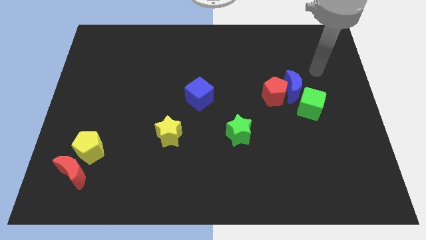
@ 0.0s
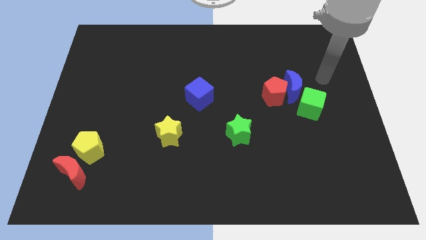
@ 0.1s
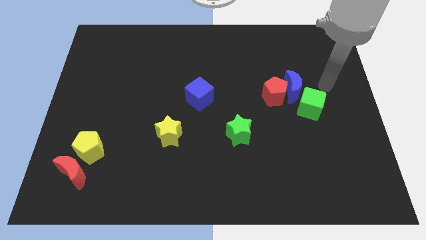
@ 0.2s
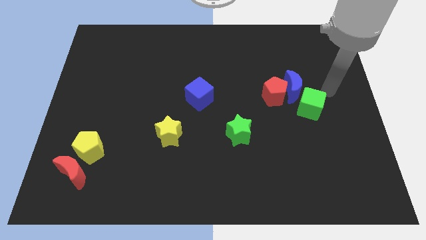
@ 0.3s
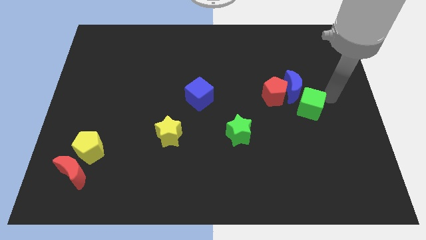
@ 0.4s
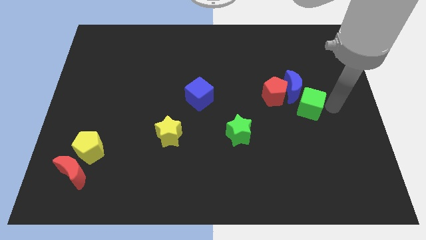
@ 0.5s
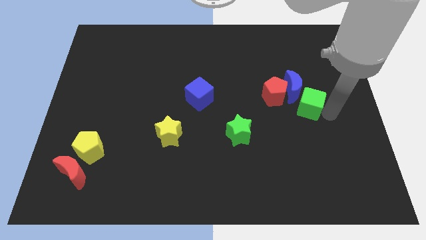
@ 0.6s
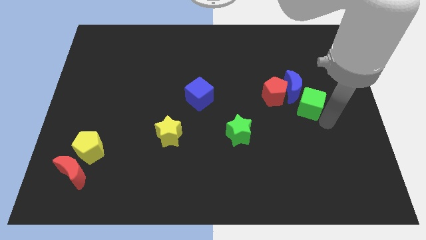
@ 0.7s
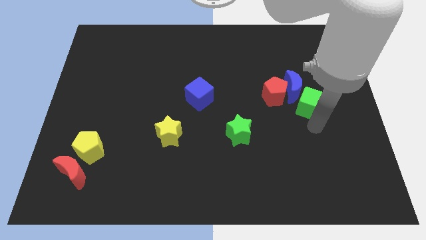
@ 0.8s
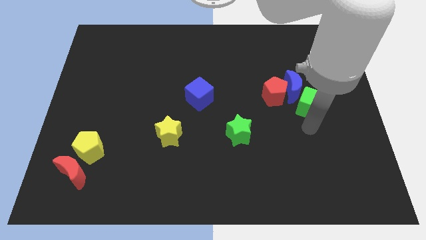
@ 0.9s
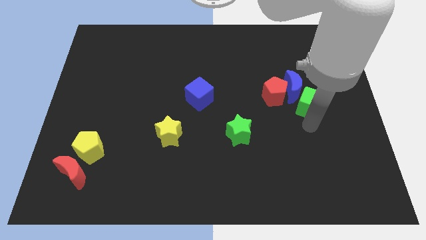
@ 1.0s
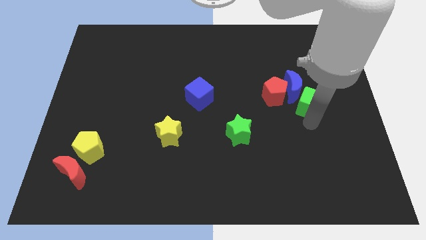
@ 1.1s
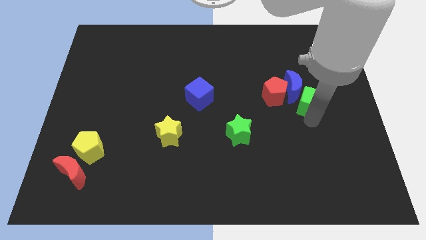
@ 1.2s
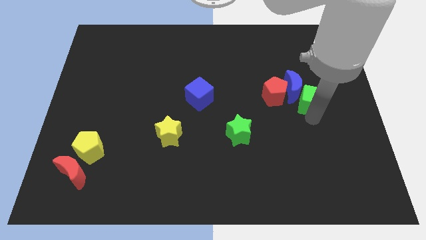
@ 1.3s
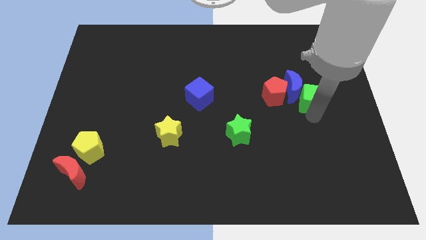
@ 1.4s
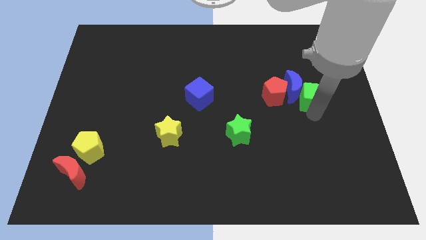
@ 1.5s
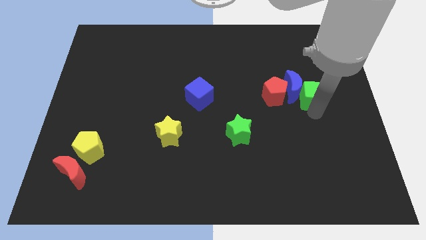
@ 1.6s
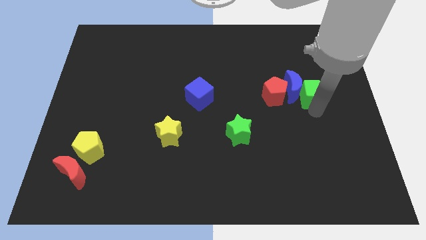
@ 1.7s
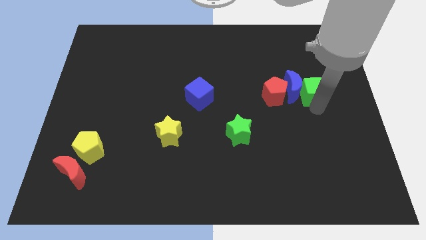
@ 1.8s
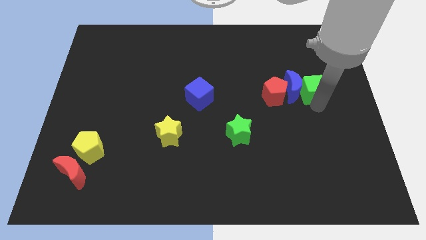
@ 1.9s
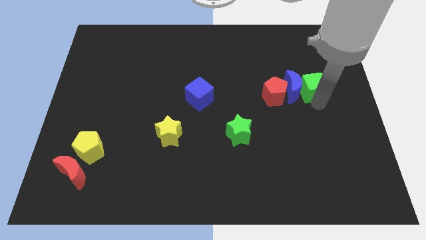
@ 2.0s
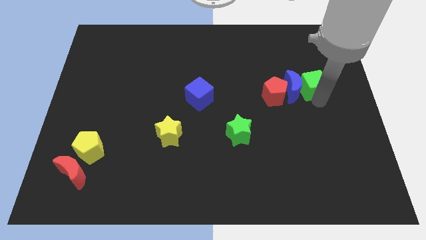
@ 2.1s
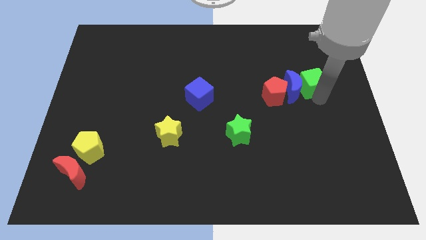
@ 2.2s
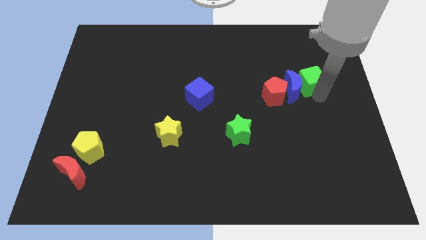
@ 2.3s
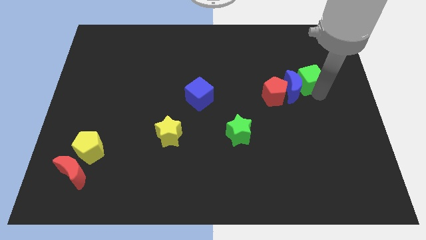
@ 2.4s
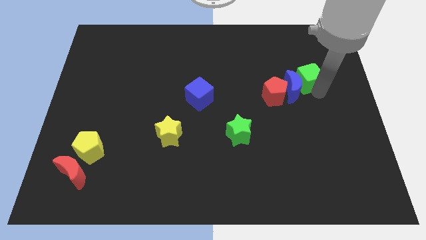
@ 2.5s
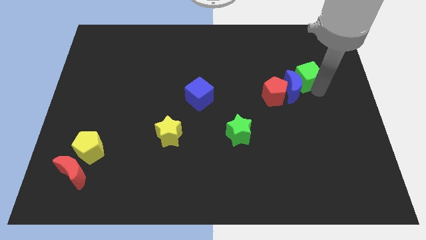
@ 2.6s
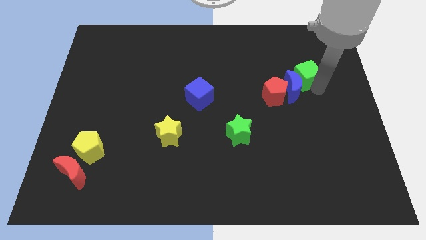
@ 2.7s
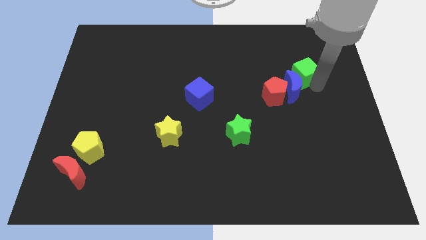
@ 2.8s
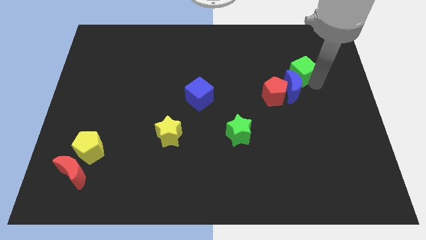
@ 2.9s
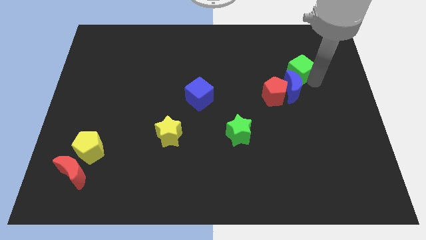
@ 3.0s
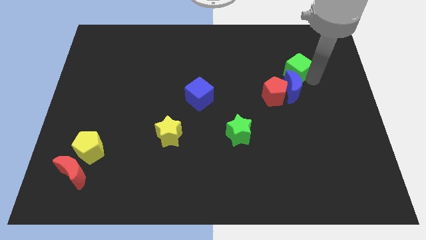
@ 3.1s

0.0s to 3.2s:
slide the green cube a bit upwards and left

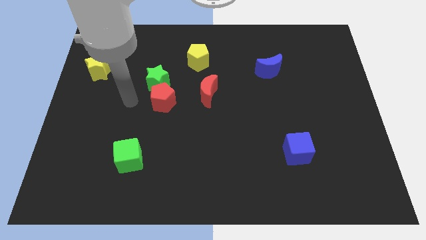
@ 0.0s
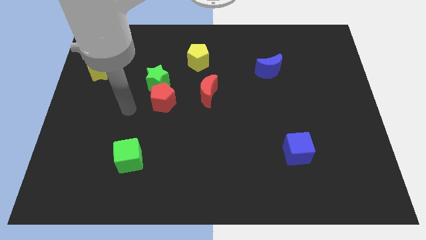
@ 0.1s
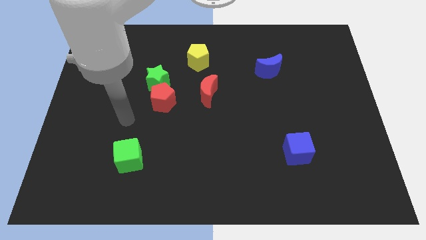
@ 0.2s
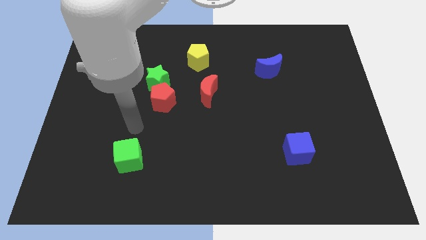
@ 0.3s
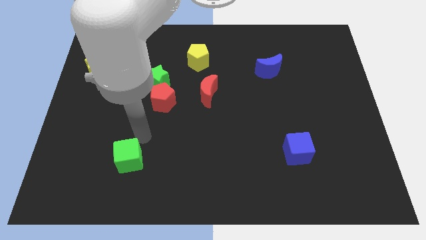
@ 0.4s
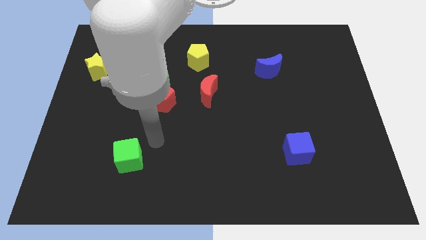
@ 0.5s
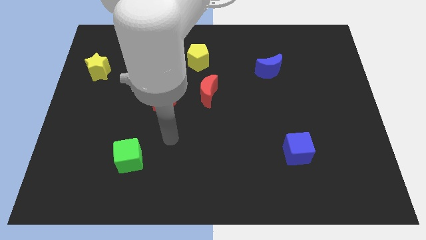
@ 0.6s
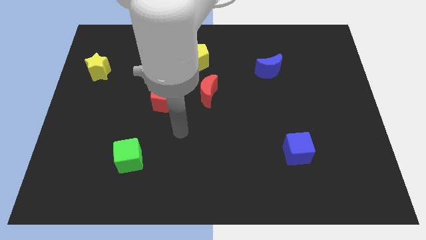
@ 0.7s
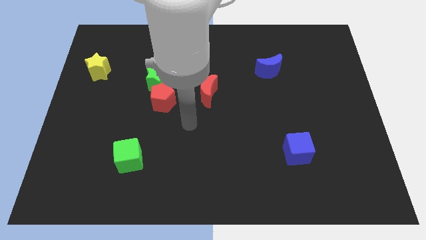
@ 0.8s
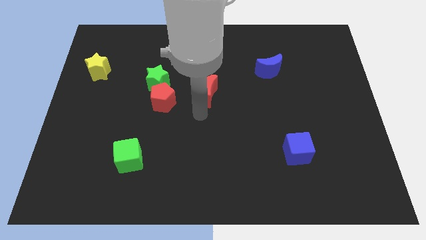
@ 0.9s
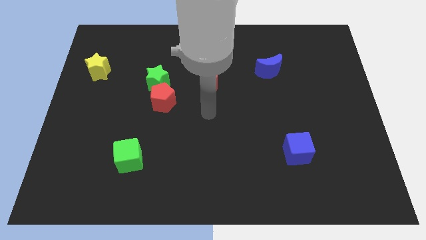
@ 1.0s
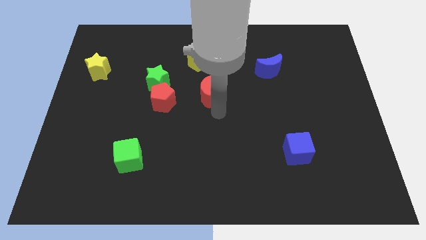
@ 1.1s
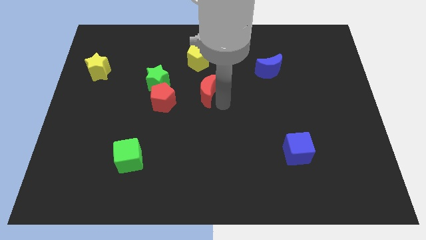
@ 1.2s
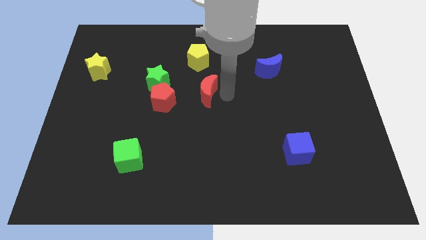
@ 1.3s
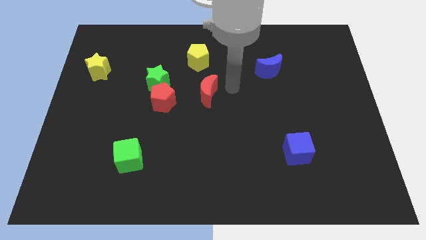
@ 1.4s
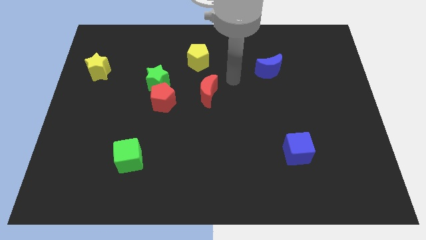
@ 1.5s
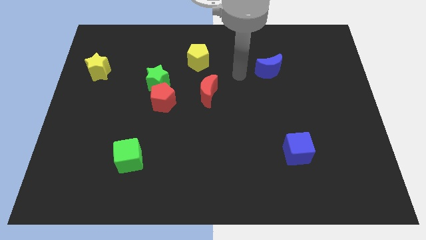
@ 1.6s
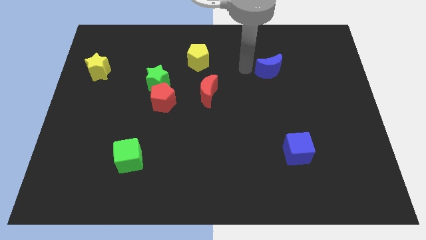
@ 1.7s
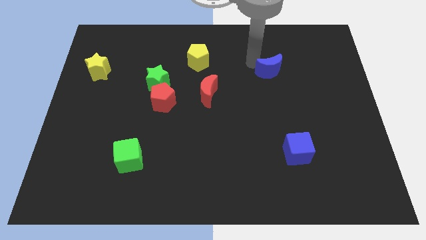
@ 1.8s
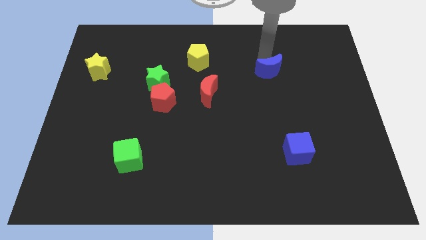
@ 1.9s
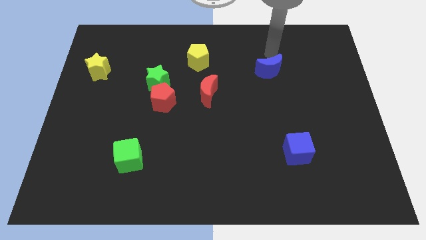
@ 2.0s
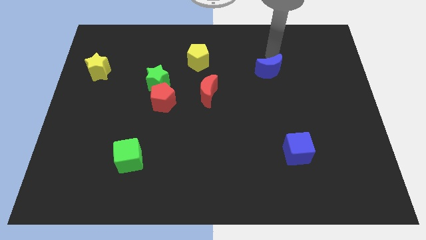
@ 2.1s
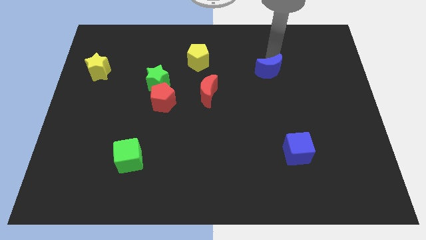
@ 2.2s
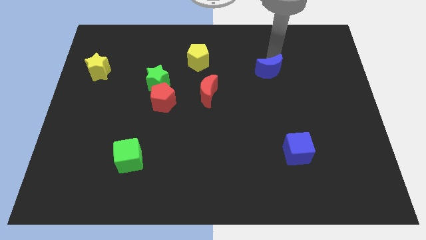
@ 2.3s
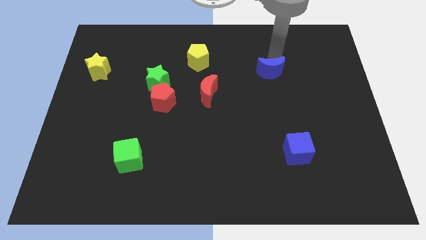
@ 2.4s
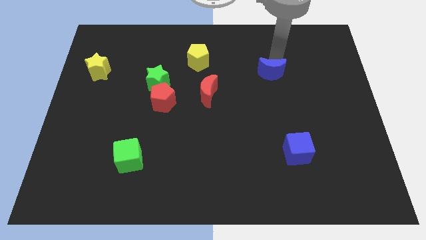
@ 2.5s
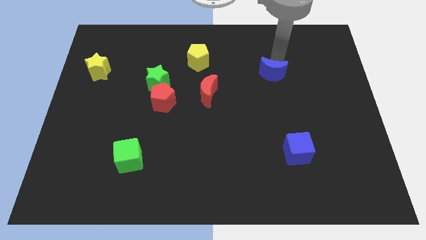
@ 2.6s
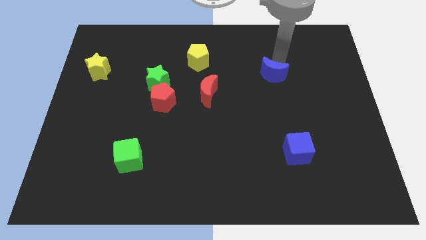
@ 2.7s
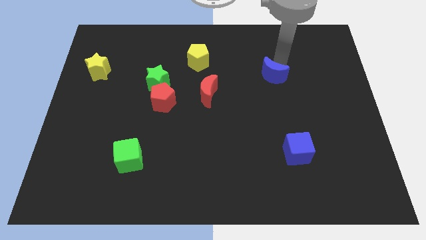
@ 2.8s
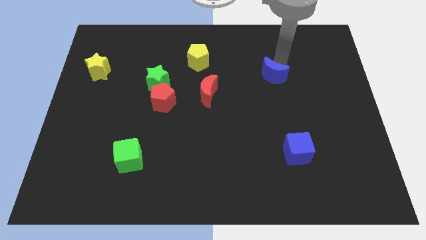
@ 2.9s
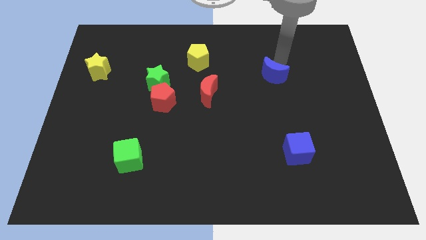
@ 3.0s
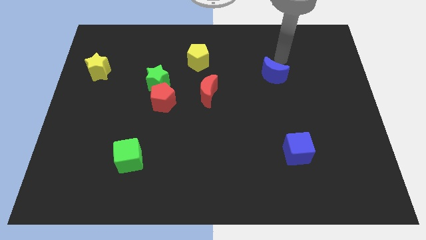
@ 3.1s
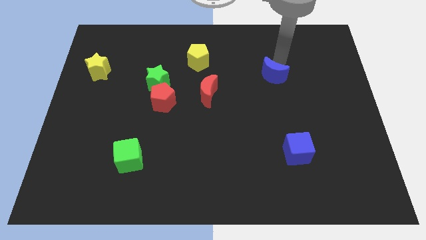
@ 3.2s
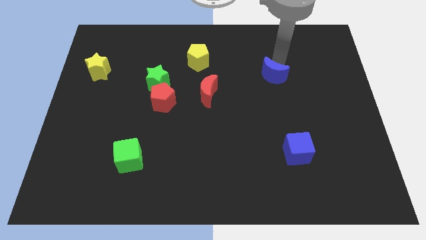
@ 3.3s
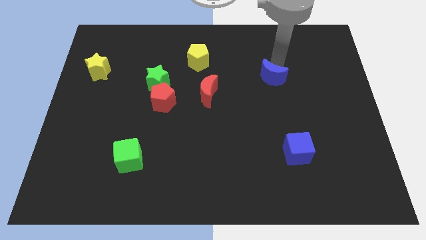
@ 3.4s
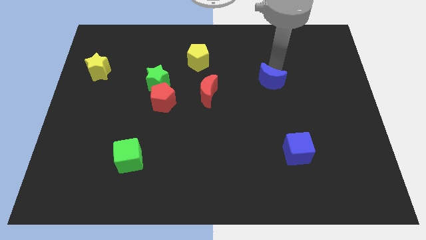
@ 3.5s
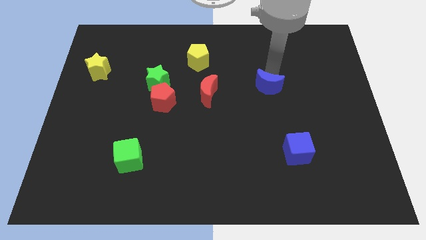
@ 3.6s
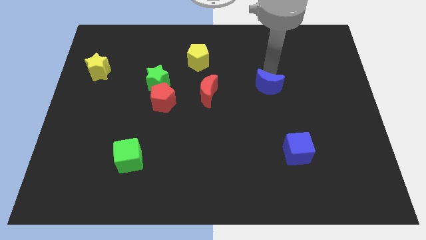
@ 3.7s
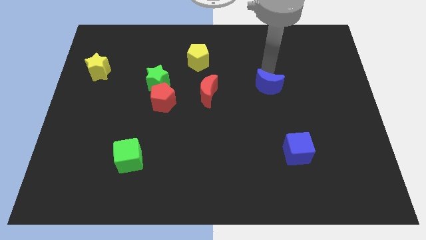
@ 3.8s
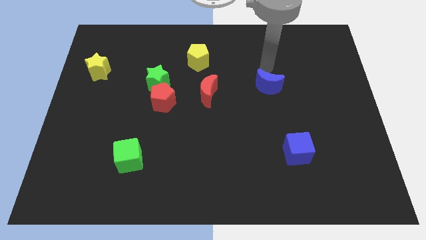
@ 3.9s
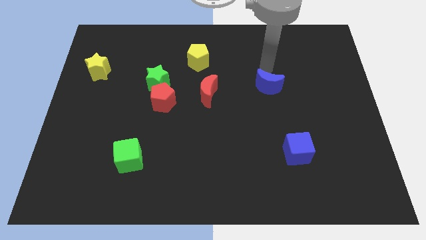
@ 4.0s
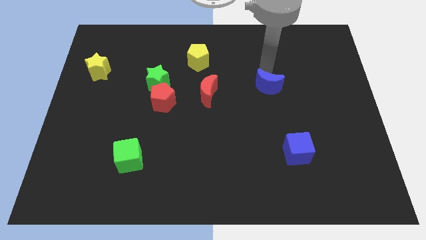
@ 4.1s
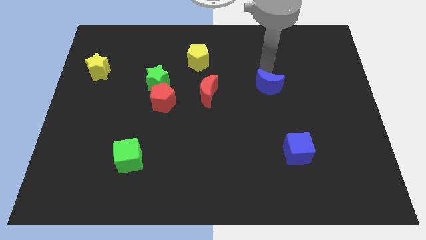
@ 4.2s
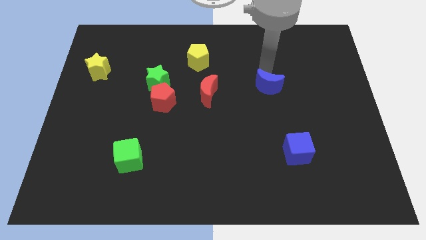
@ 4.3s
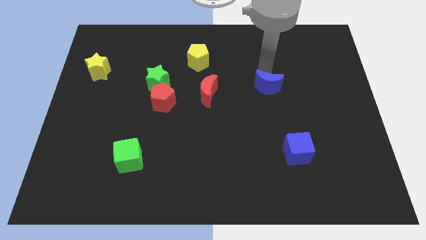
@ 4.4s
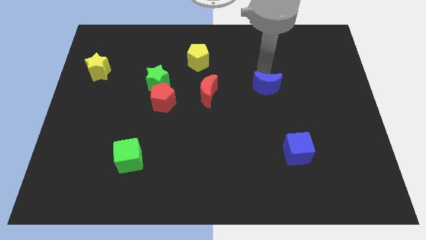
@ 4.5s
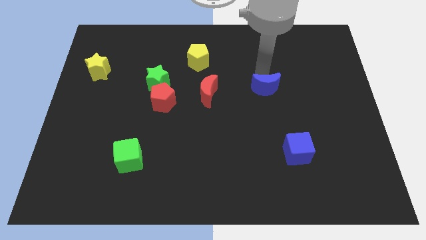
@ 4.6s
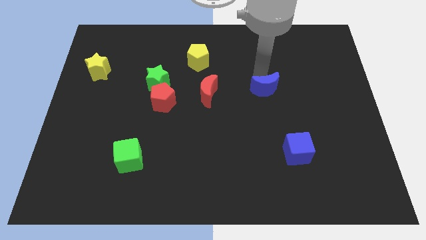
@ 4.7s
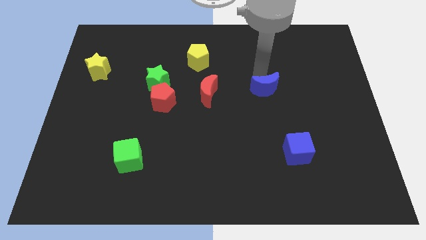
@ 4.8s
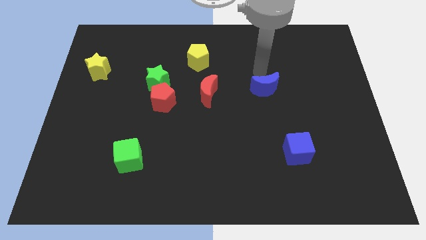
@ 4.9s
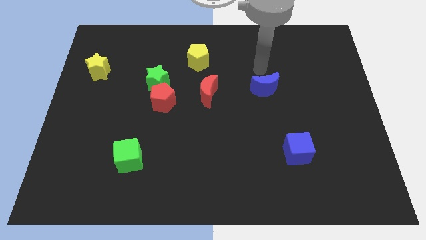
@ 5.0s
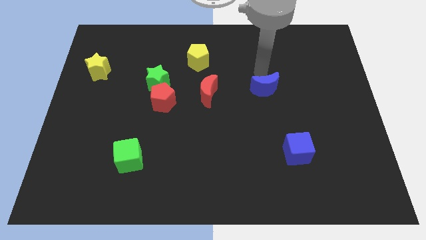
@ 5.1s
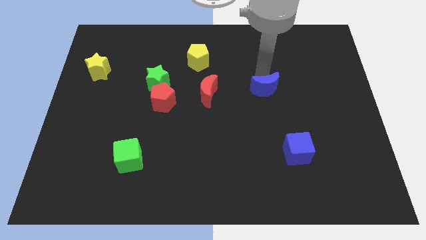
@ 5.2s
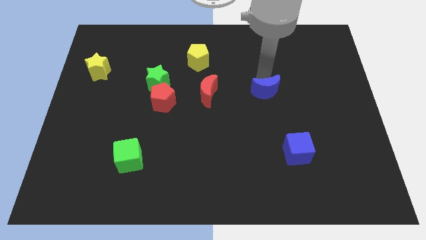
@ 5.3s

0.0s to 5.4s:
slightly push the blue moon down
